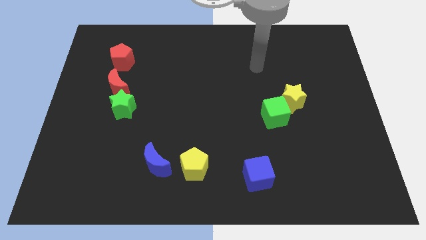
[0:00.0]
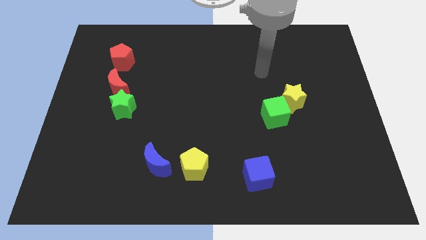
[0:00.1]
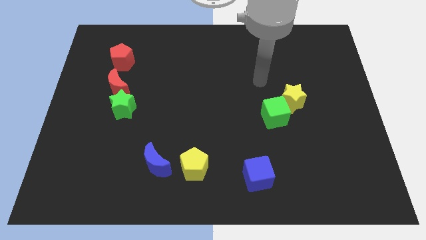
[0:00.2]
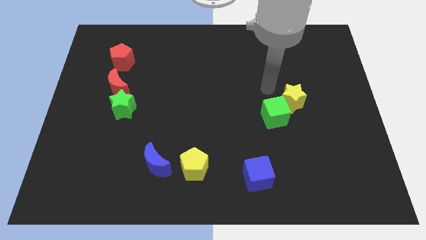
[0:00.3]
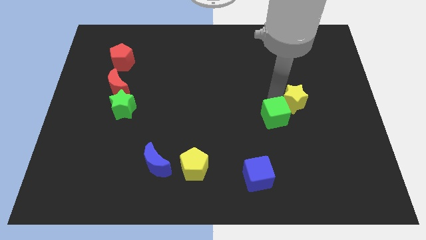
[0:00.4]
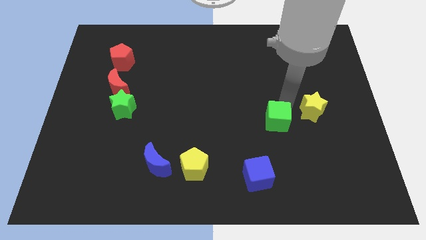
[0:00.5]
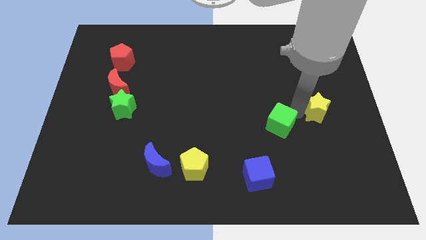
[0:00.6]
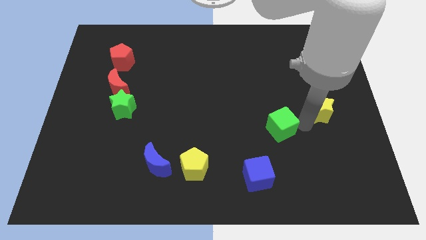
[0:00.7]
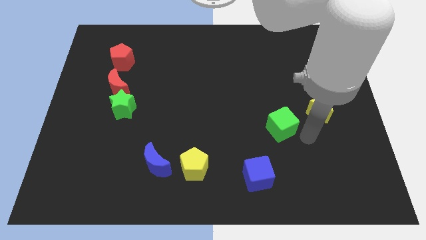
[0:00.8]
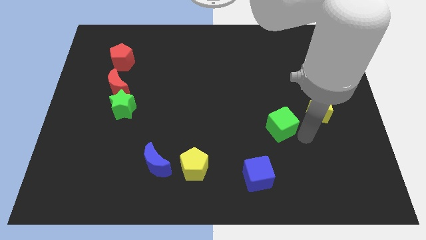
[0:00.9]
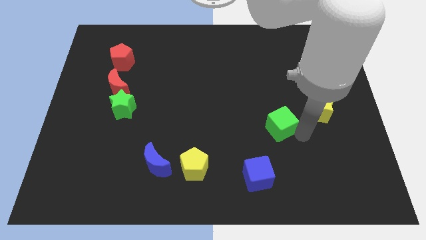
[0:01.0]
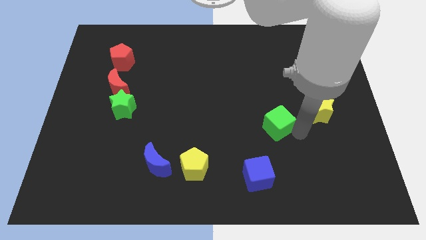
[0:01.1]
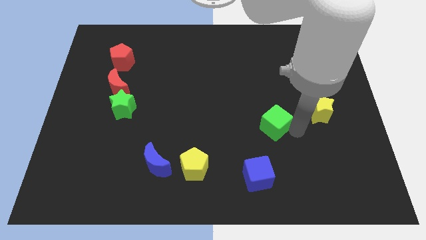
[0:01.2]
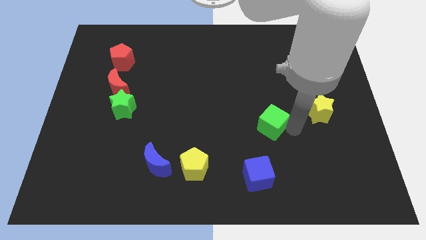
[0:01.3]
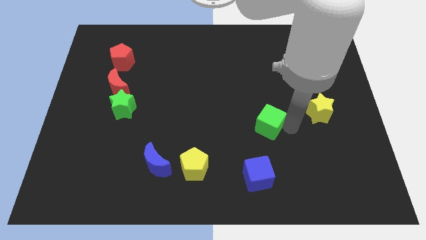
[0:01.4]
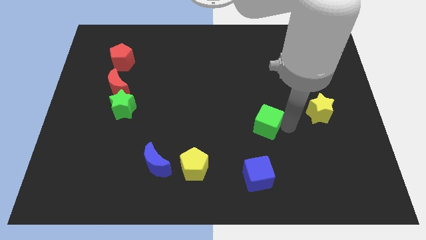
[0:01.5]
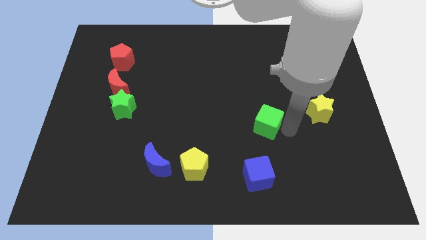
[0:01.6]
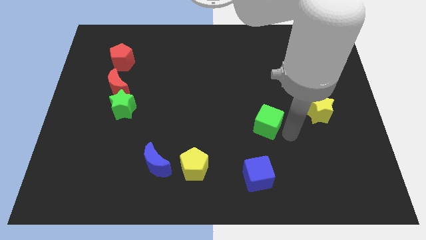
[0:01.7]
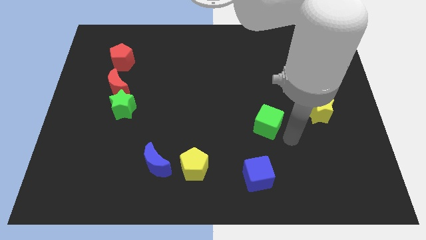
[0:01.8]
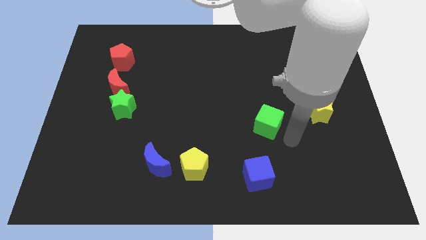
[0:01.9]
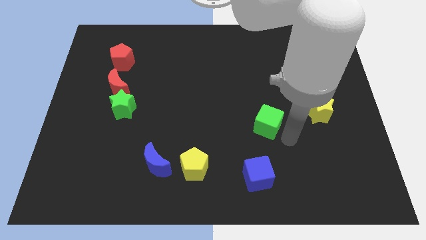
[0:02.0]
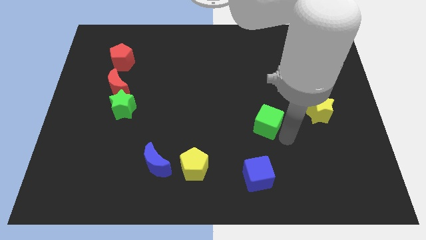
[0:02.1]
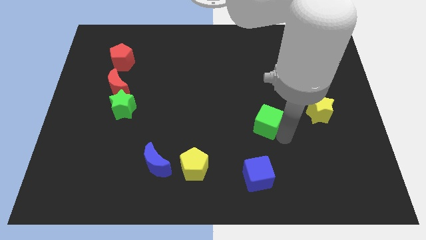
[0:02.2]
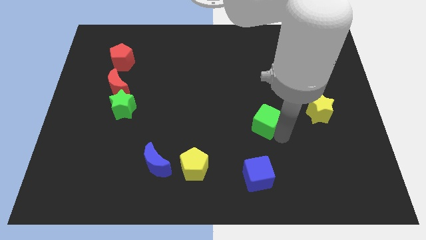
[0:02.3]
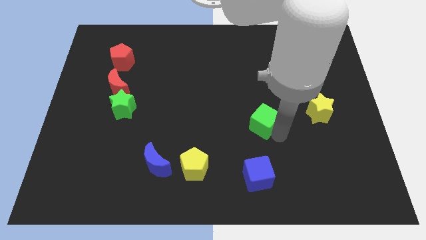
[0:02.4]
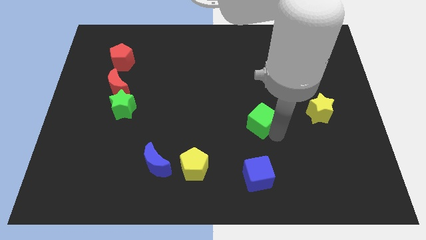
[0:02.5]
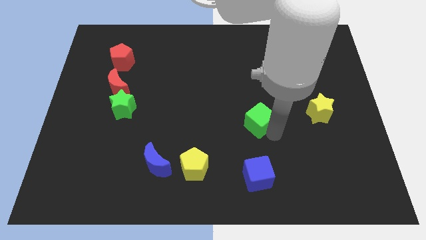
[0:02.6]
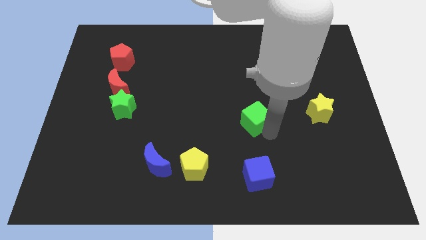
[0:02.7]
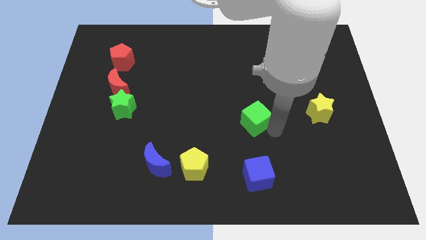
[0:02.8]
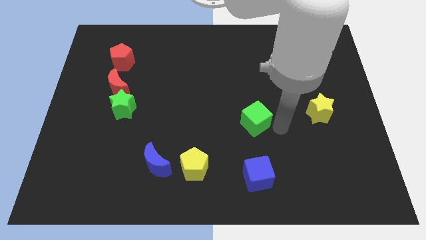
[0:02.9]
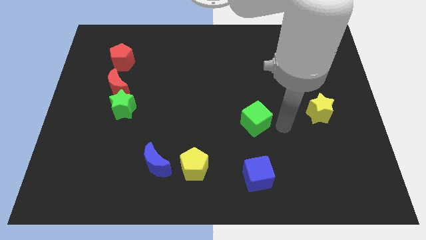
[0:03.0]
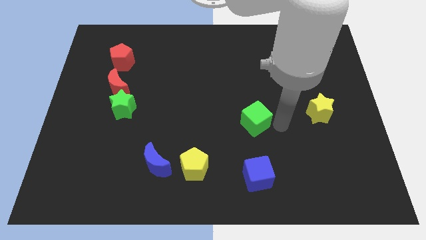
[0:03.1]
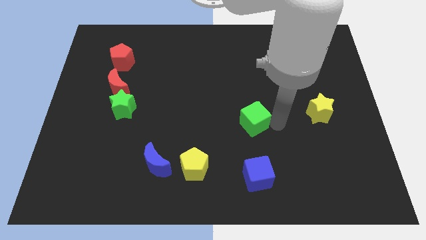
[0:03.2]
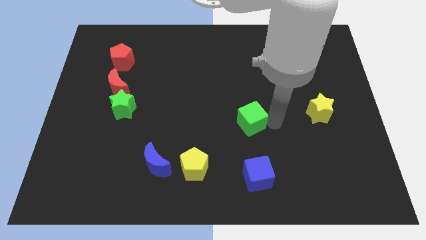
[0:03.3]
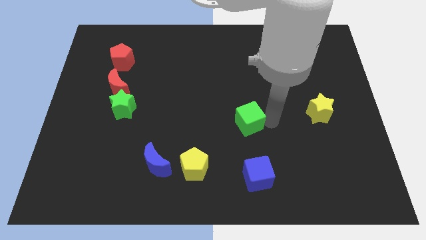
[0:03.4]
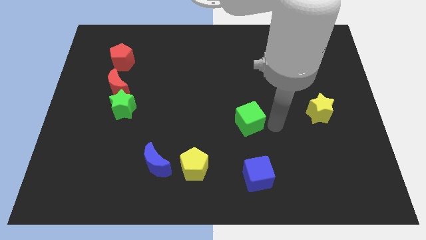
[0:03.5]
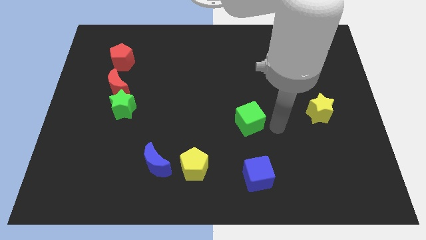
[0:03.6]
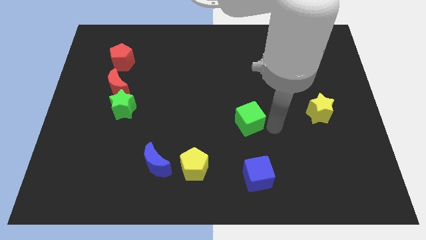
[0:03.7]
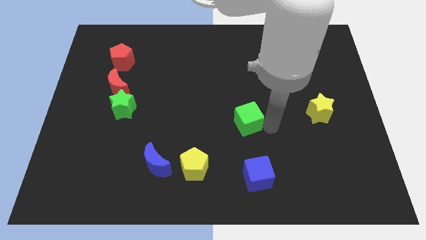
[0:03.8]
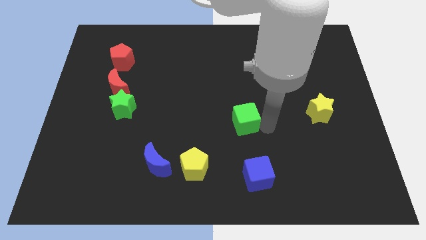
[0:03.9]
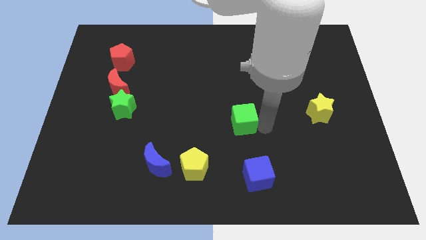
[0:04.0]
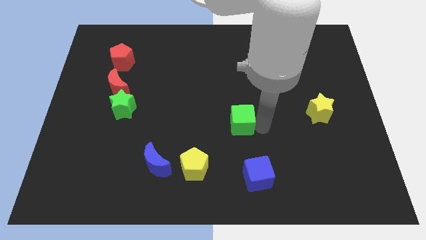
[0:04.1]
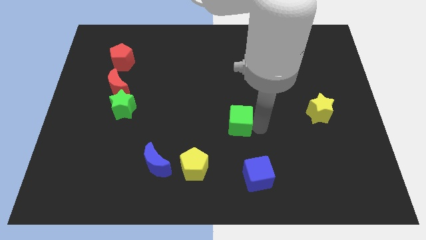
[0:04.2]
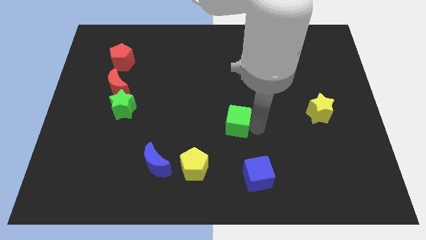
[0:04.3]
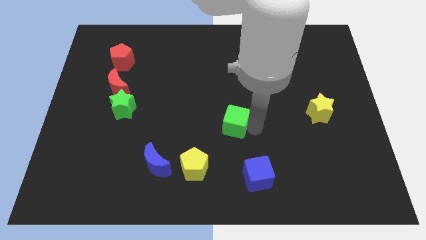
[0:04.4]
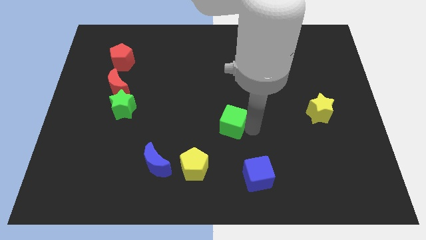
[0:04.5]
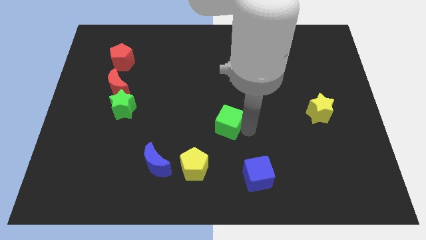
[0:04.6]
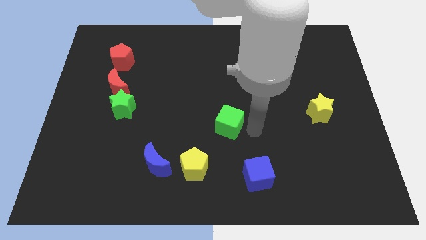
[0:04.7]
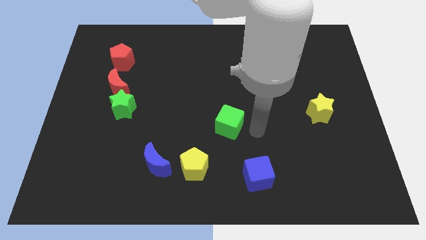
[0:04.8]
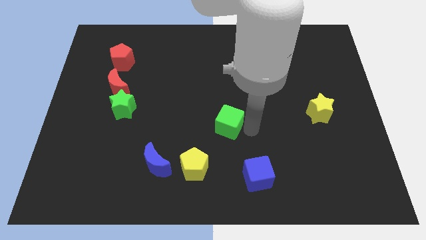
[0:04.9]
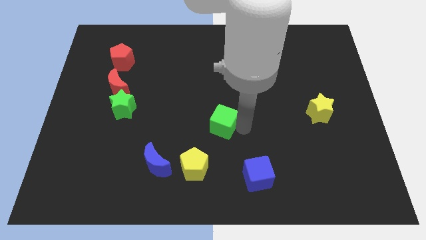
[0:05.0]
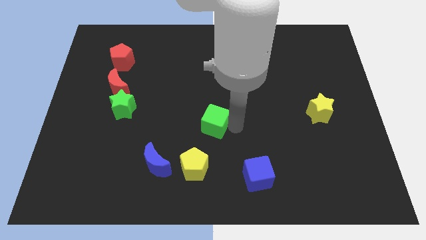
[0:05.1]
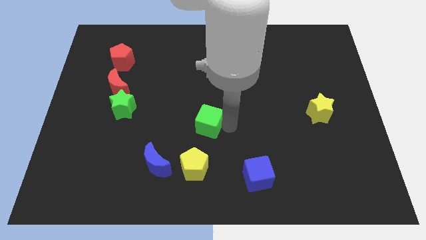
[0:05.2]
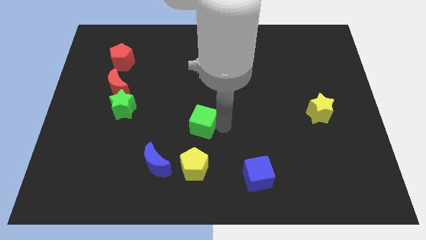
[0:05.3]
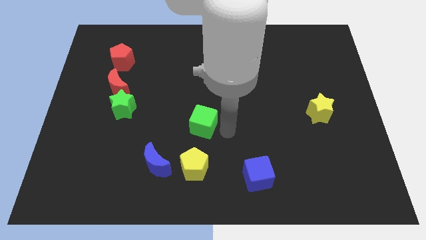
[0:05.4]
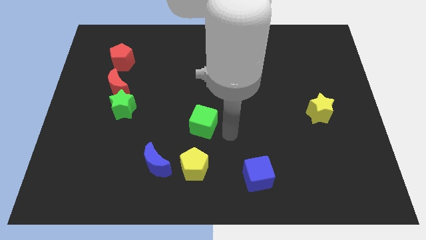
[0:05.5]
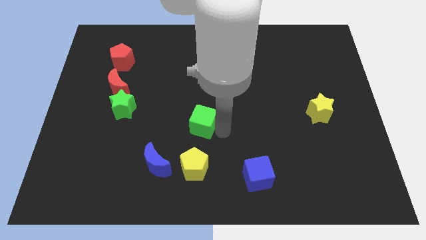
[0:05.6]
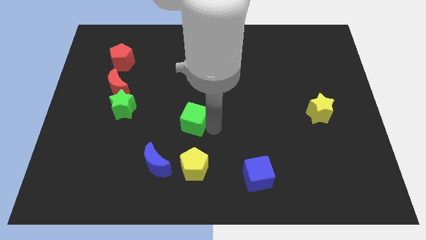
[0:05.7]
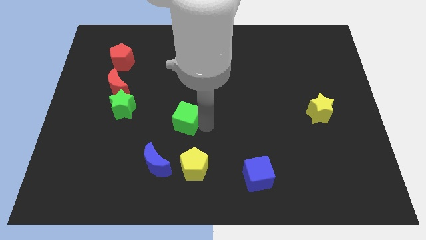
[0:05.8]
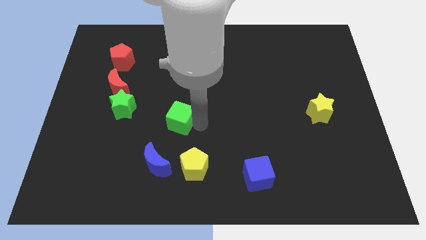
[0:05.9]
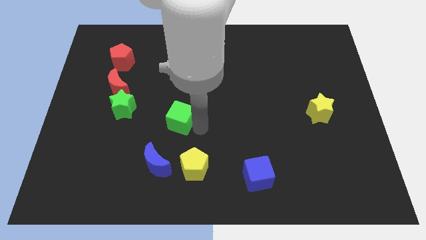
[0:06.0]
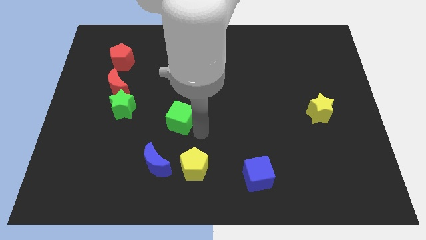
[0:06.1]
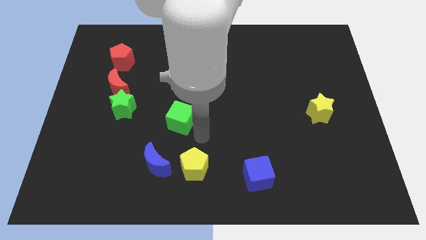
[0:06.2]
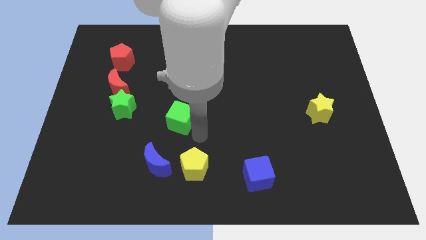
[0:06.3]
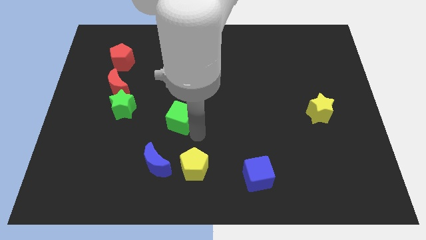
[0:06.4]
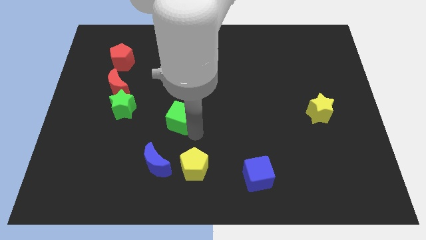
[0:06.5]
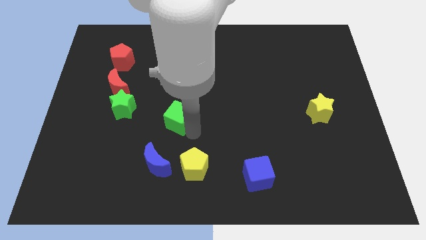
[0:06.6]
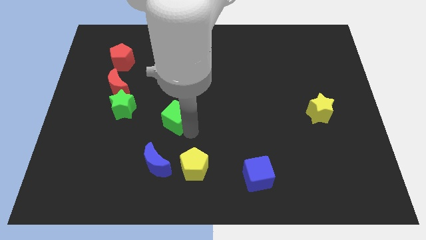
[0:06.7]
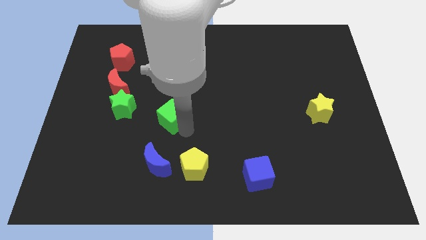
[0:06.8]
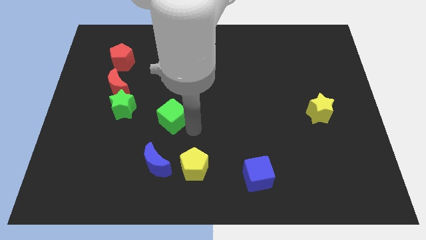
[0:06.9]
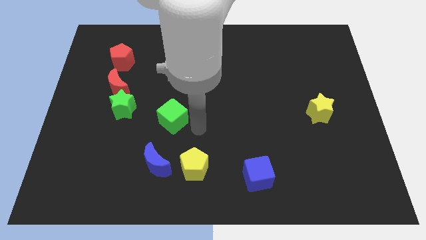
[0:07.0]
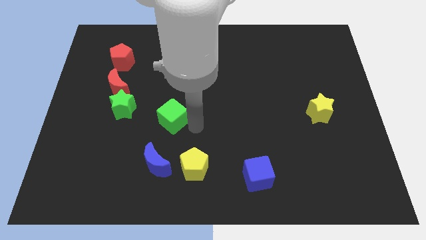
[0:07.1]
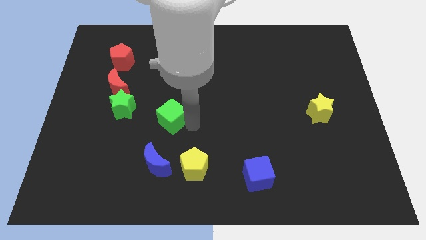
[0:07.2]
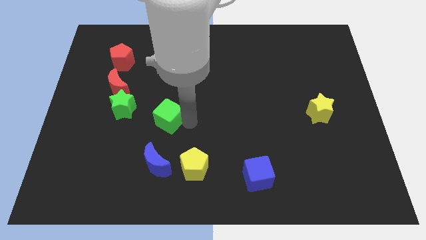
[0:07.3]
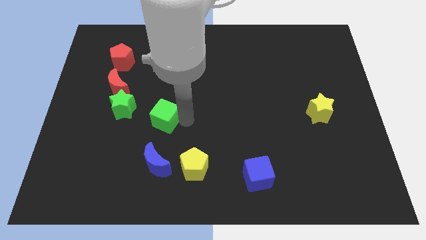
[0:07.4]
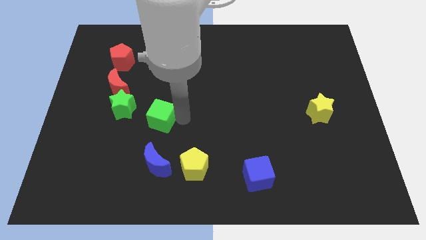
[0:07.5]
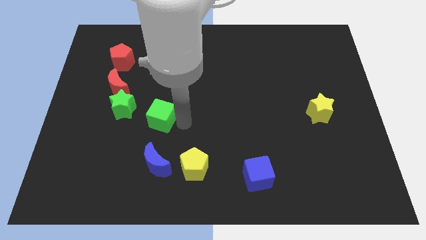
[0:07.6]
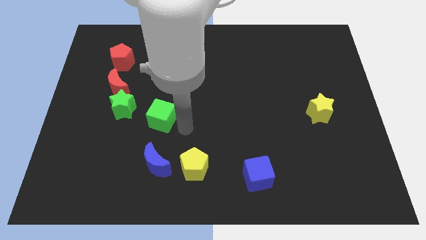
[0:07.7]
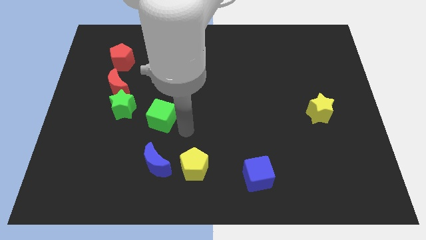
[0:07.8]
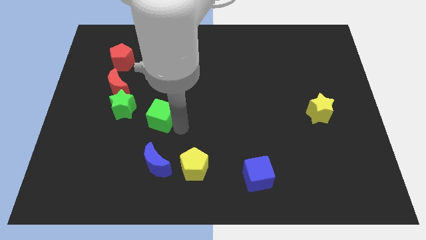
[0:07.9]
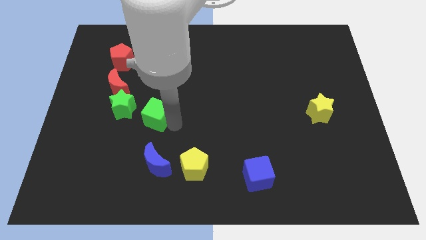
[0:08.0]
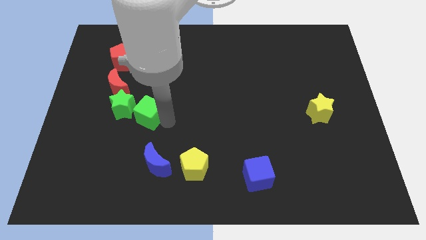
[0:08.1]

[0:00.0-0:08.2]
put the green cube to the bottom right side of the red moon
